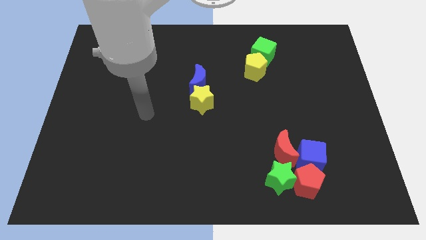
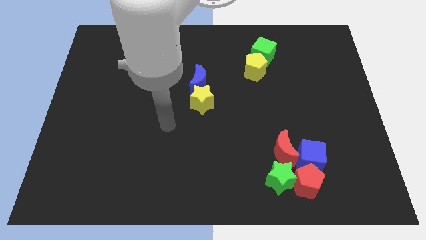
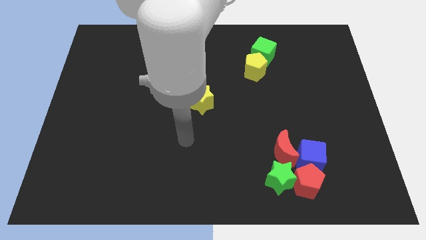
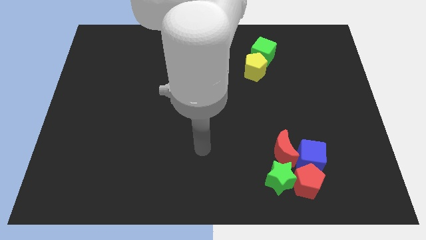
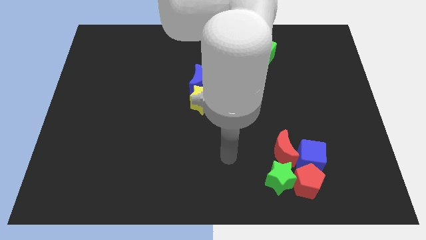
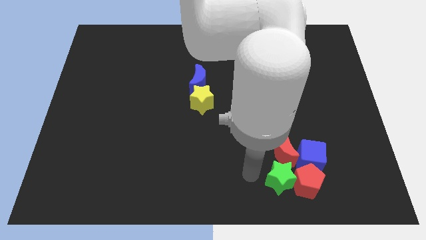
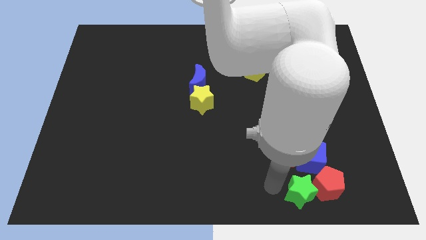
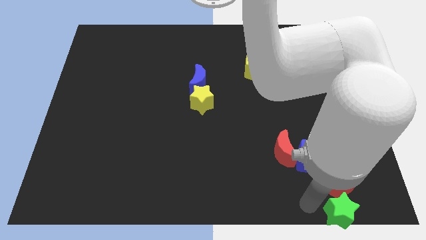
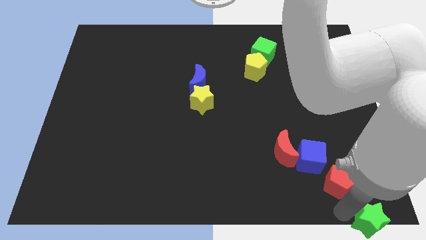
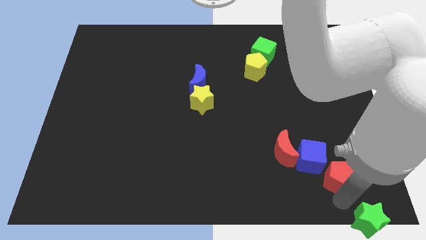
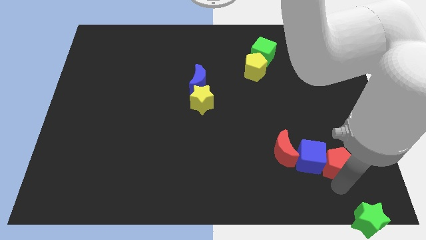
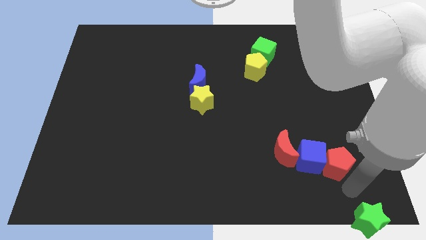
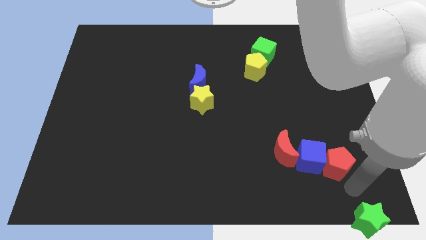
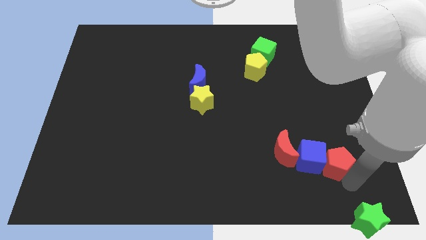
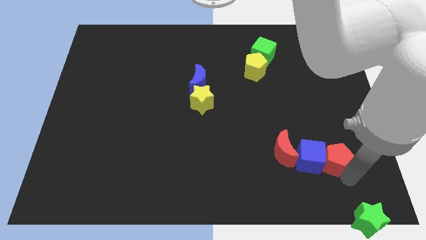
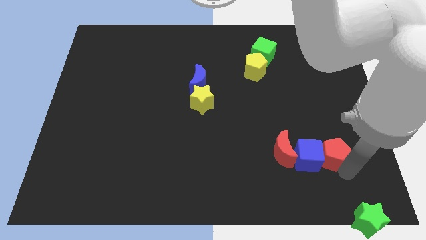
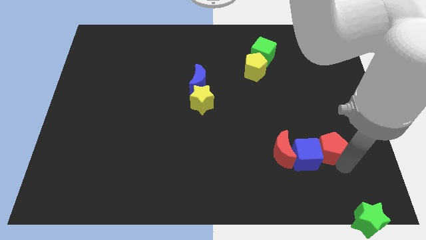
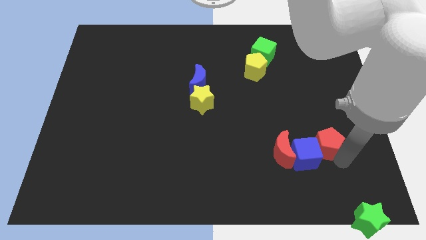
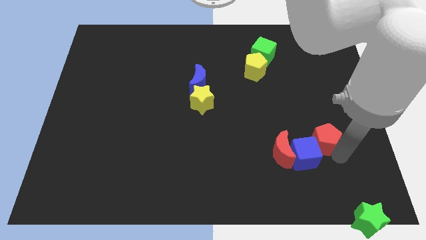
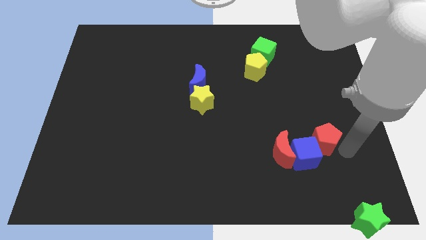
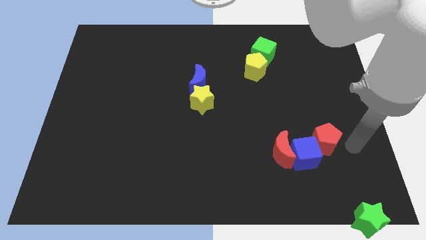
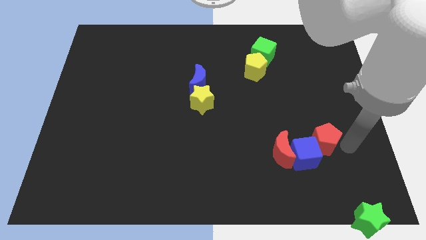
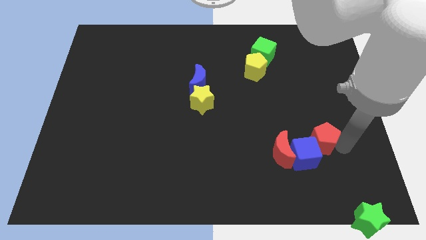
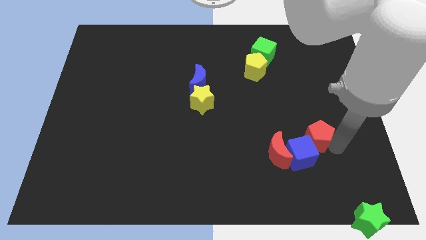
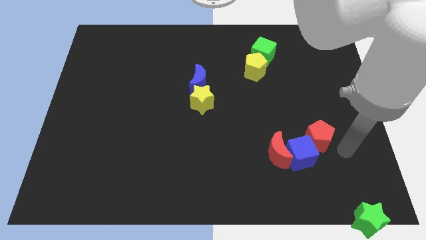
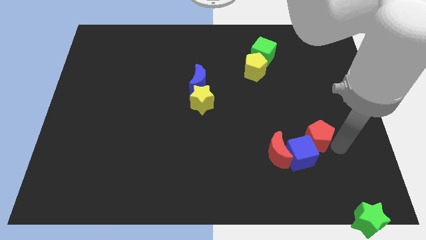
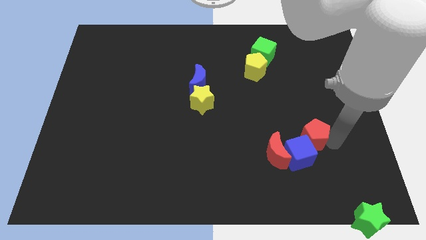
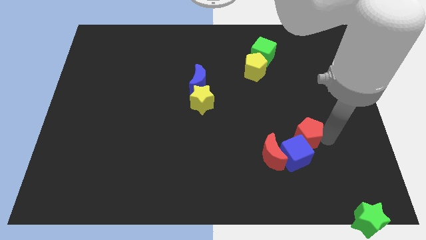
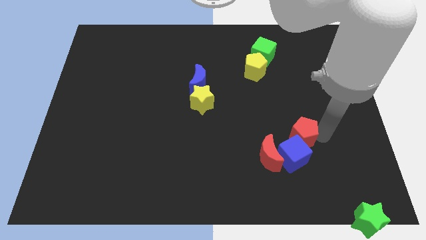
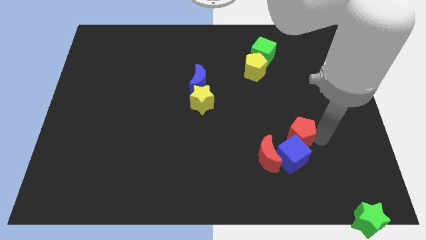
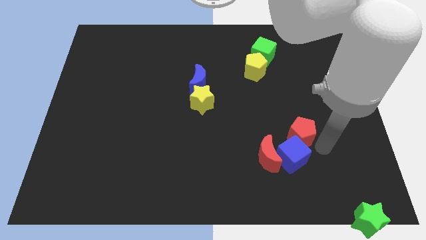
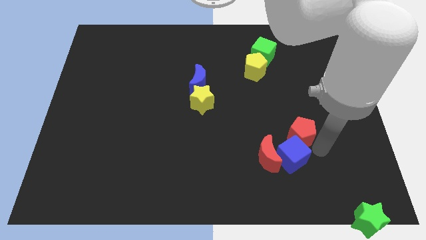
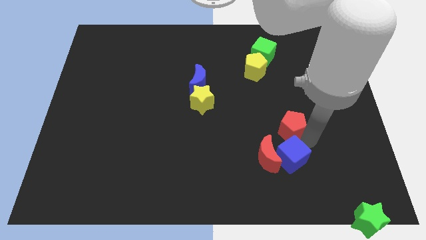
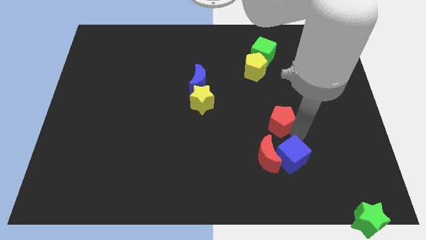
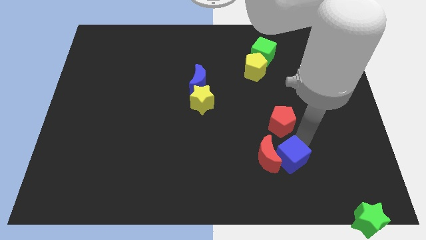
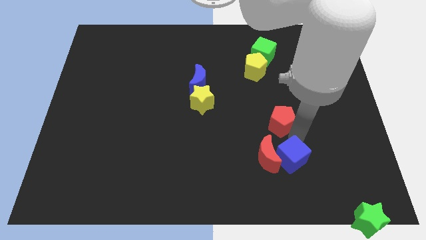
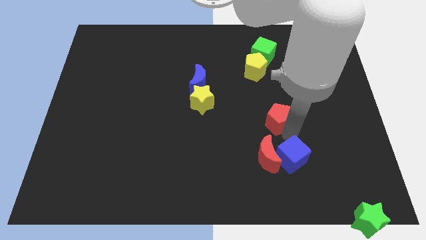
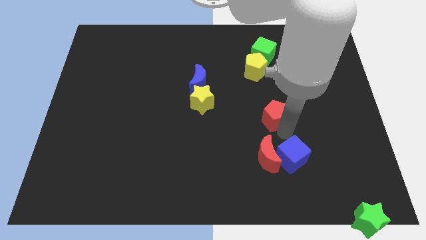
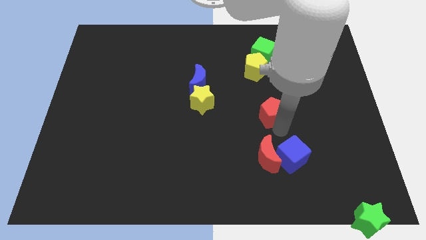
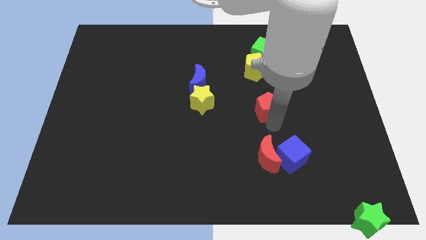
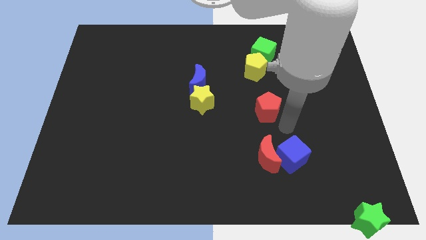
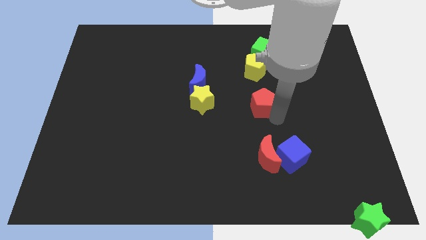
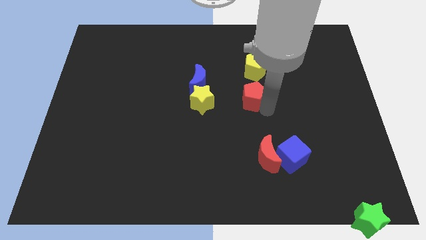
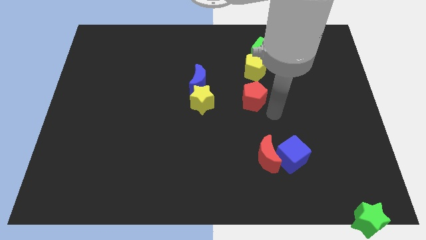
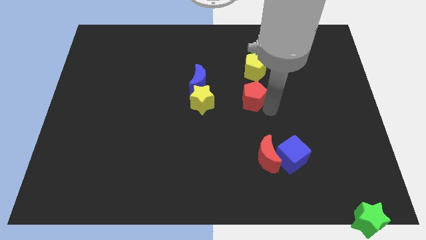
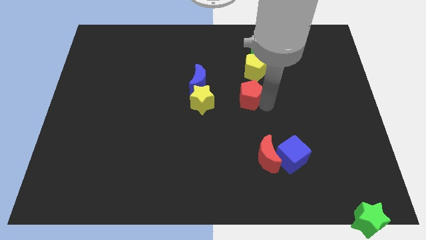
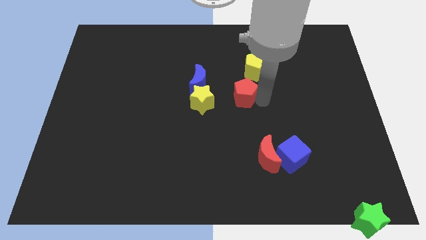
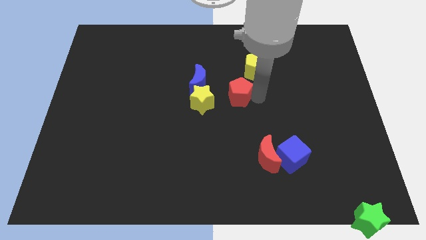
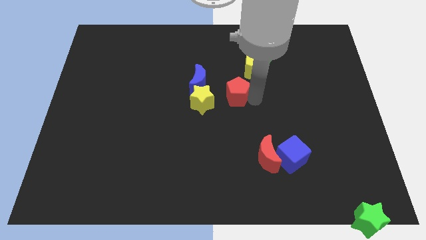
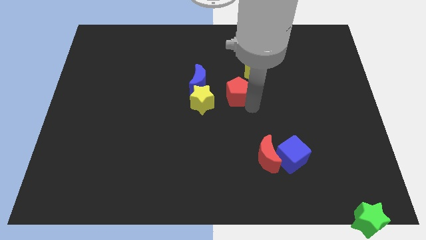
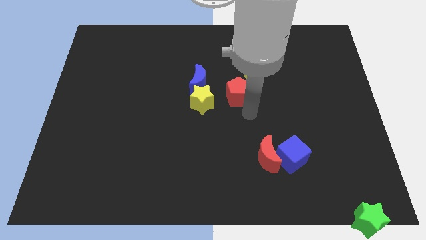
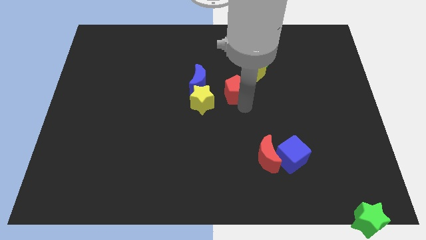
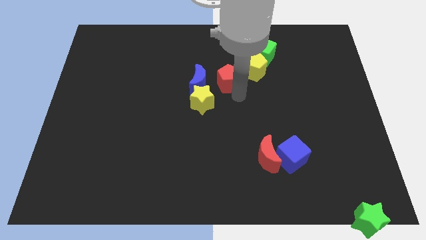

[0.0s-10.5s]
push the red pentagon to the left side of the yellow pentagon

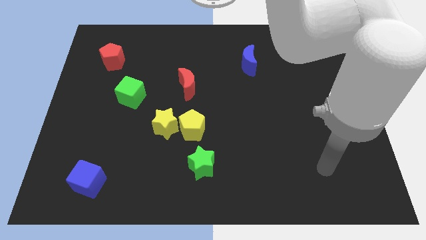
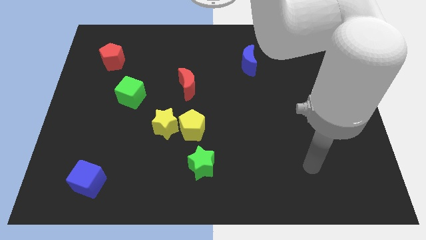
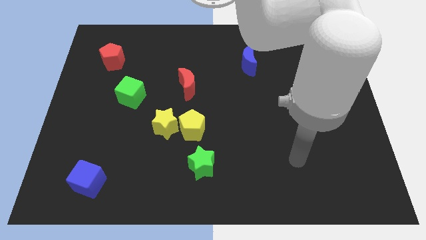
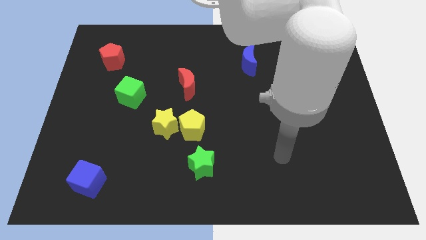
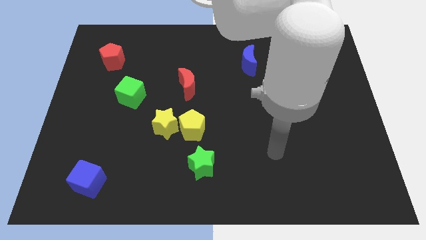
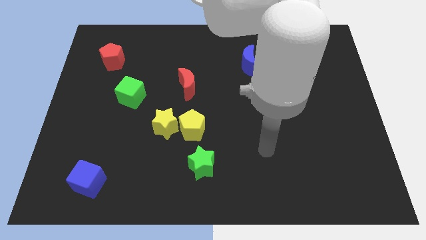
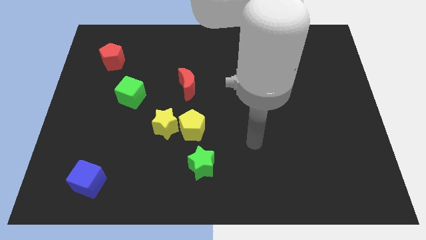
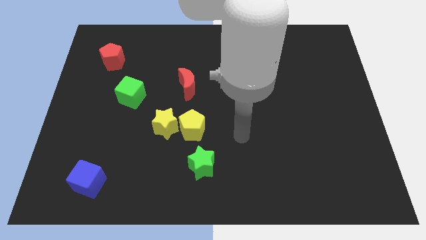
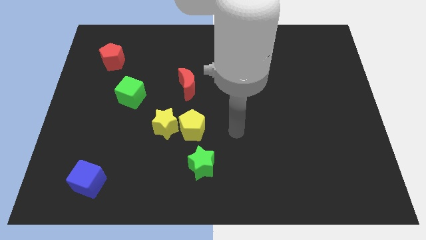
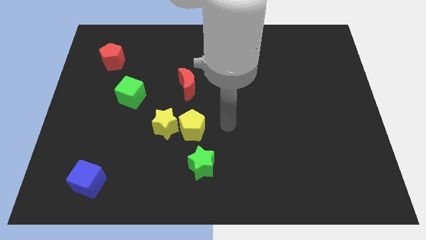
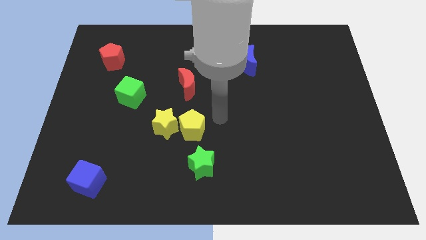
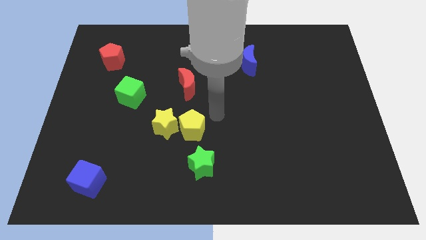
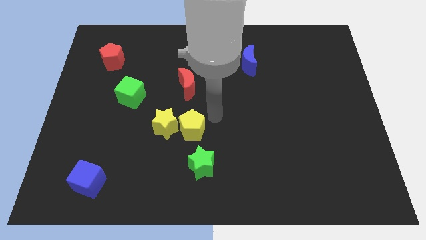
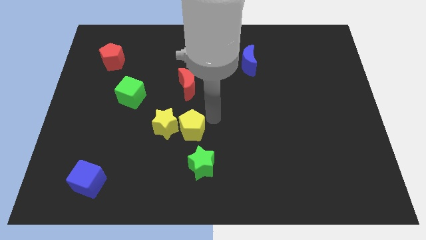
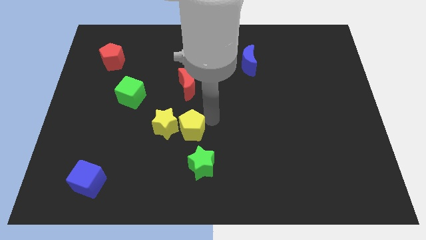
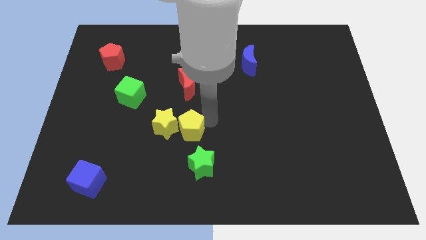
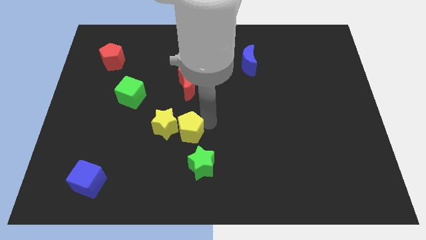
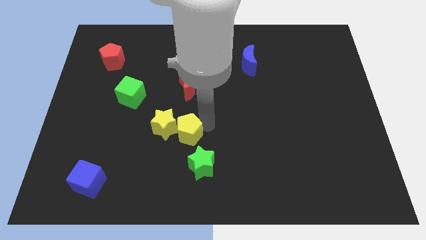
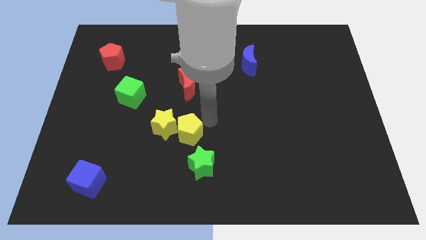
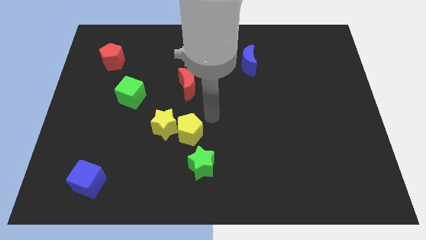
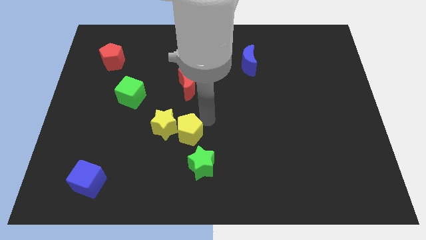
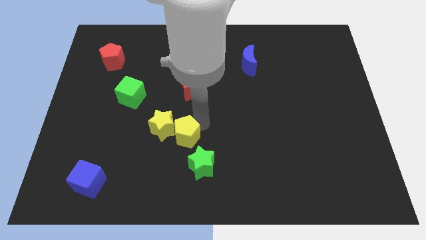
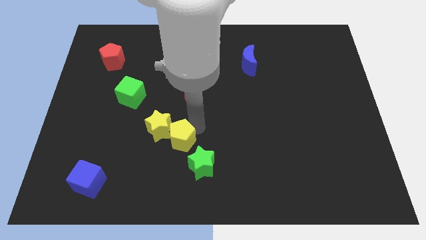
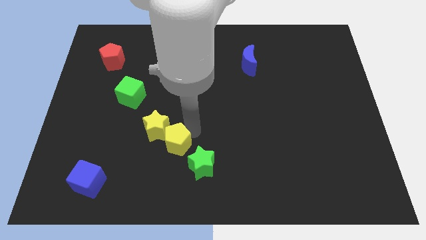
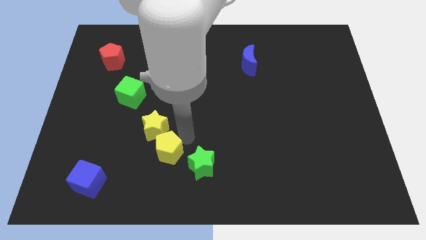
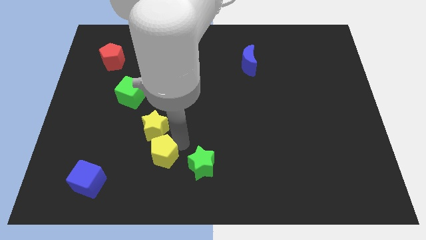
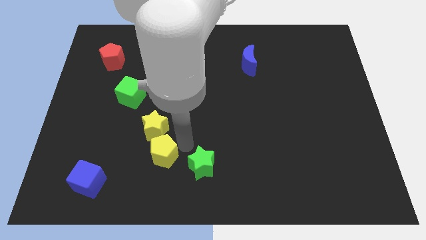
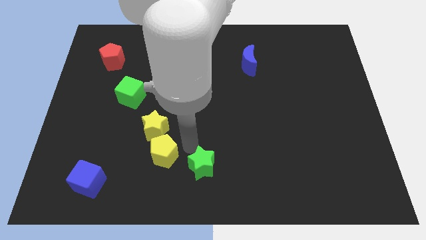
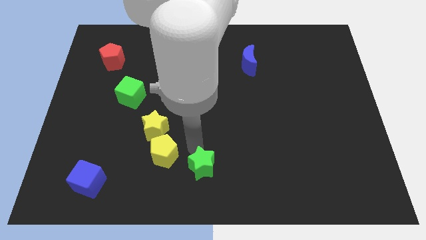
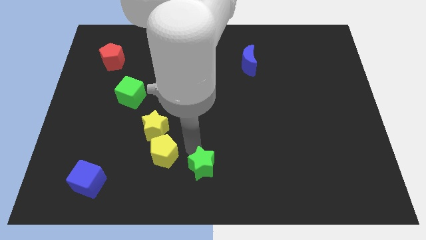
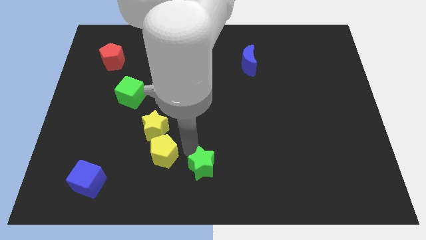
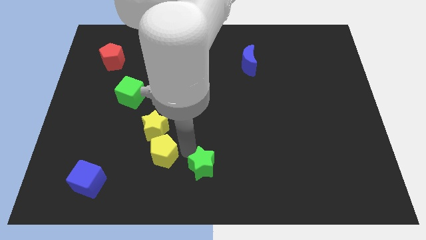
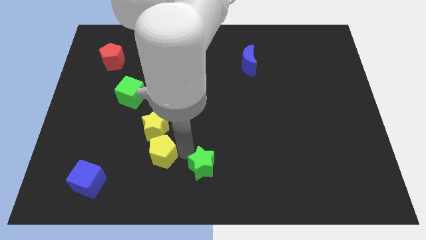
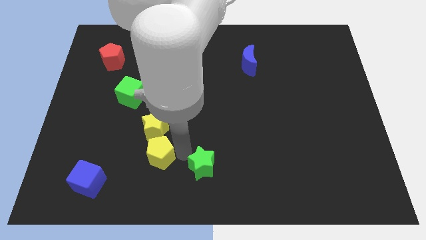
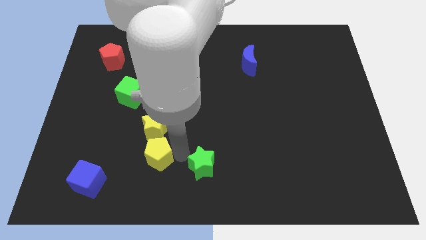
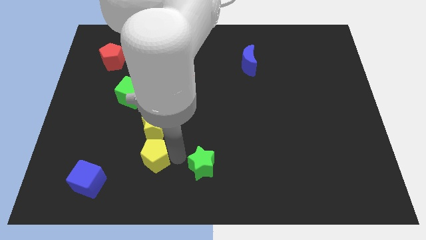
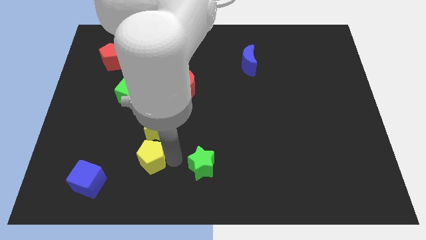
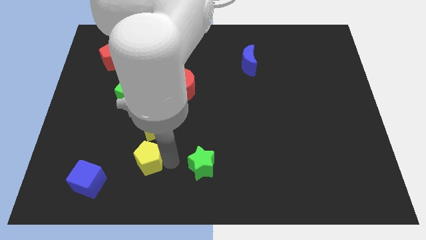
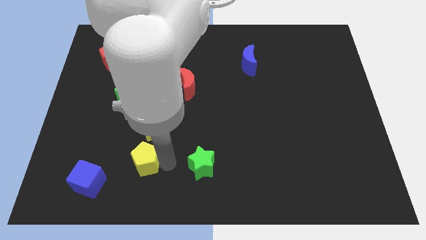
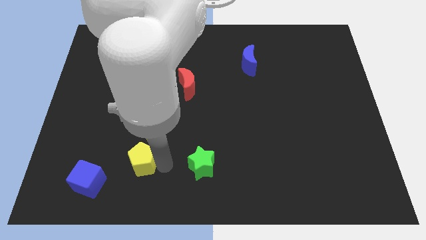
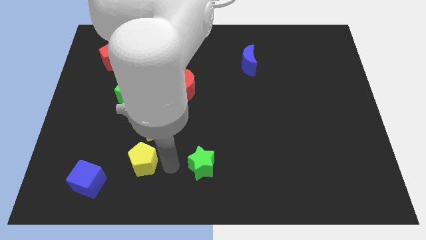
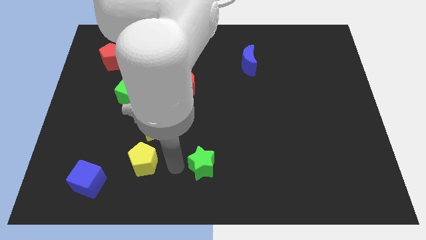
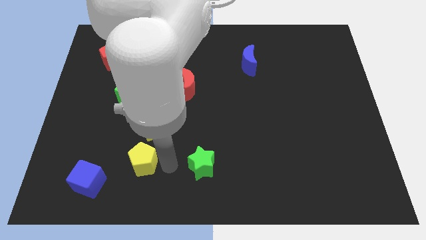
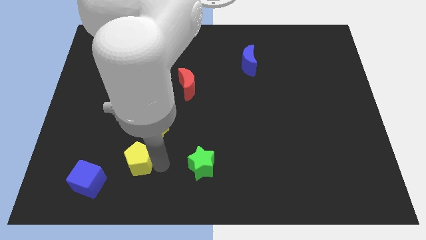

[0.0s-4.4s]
move the yellow pentagon diagonally up and to the right of the blue cube
